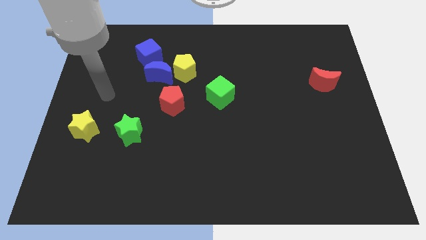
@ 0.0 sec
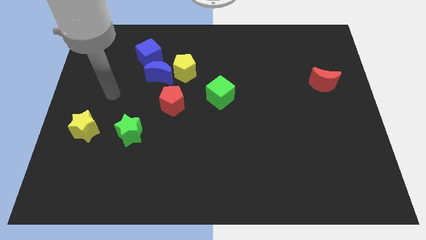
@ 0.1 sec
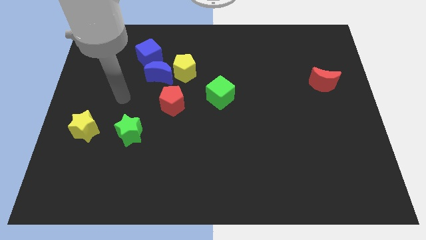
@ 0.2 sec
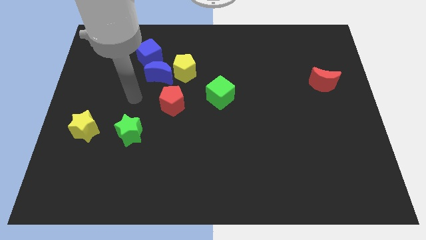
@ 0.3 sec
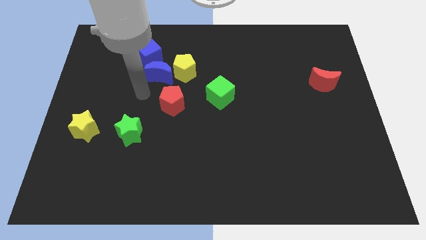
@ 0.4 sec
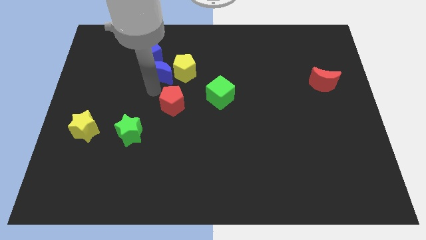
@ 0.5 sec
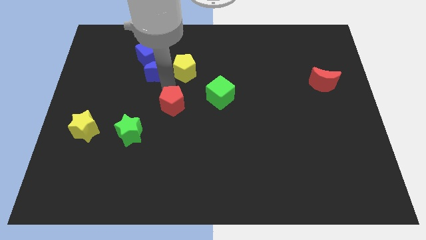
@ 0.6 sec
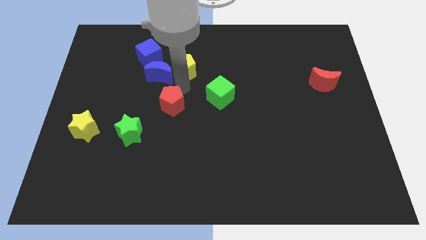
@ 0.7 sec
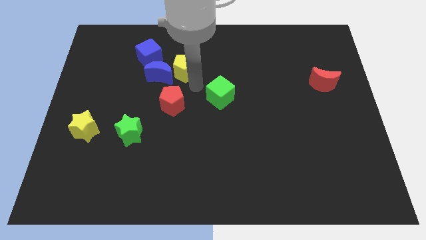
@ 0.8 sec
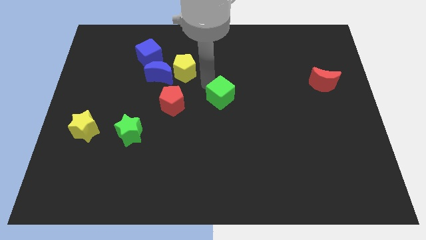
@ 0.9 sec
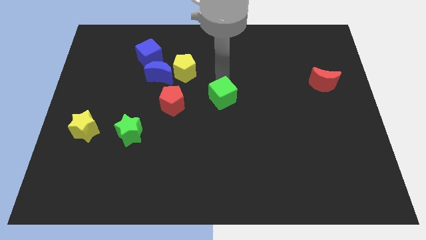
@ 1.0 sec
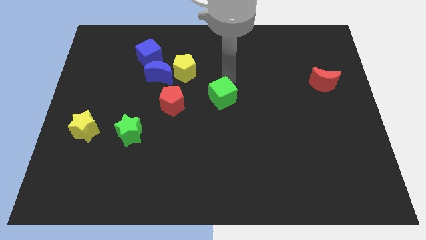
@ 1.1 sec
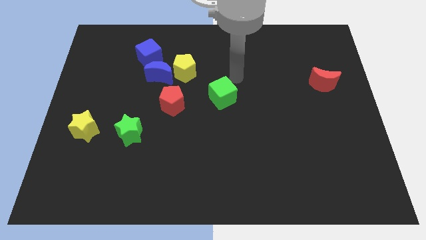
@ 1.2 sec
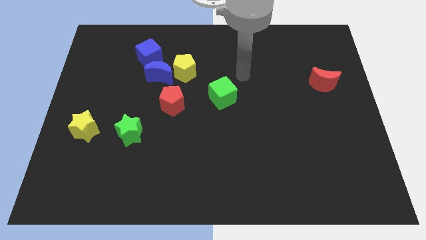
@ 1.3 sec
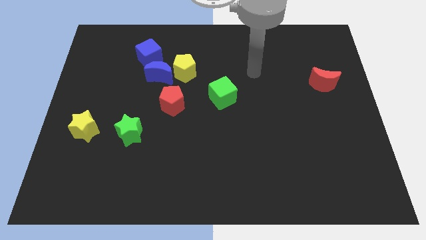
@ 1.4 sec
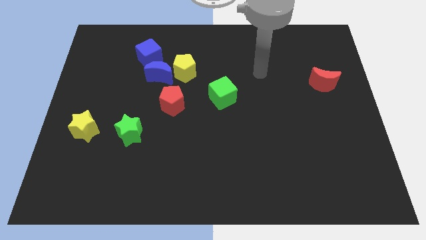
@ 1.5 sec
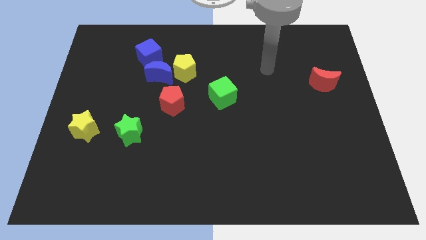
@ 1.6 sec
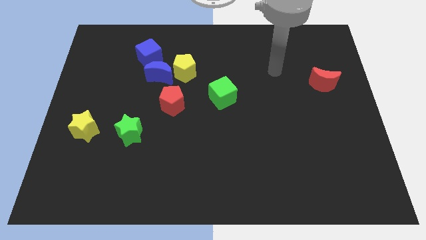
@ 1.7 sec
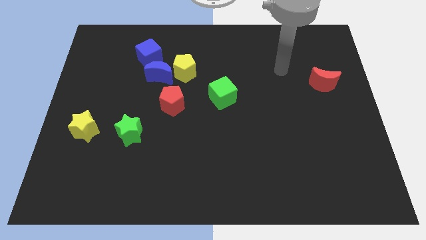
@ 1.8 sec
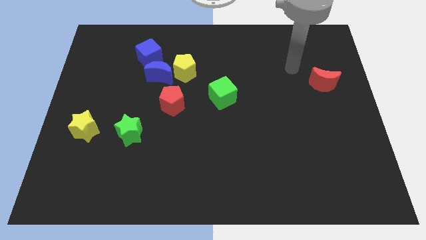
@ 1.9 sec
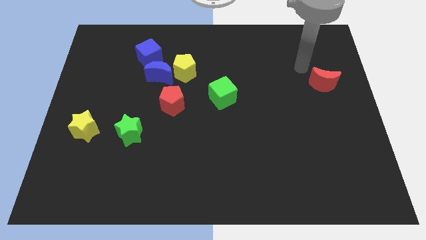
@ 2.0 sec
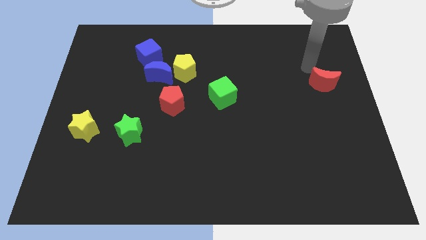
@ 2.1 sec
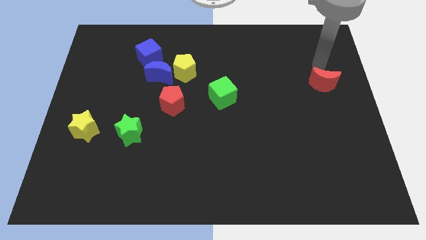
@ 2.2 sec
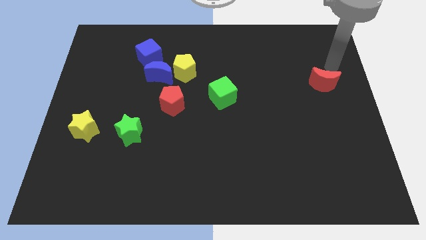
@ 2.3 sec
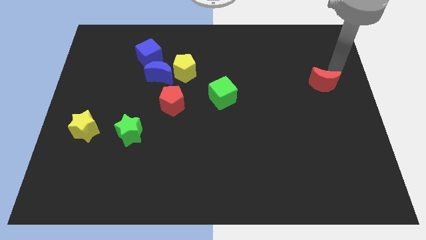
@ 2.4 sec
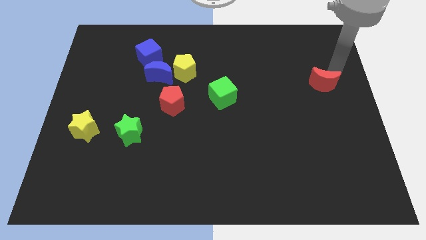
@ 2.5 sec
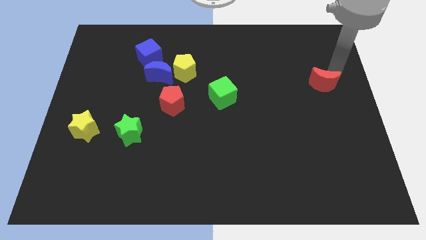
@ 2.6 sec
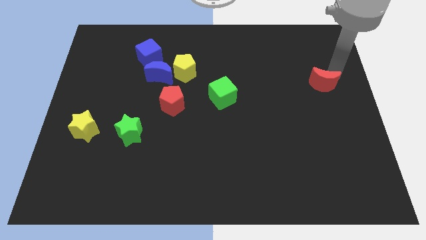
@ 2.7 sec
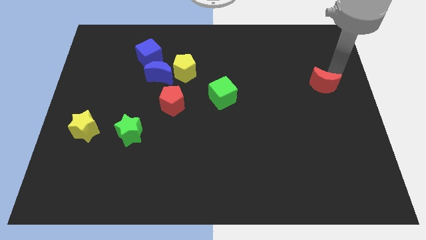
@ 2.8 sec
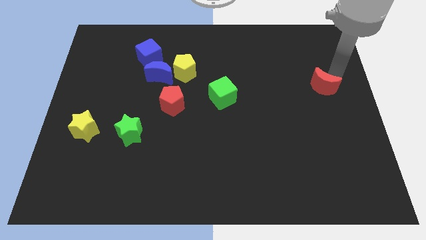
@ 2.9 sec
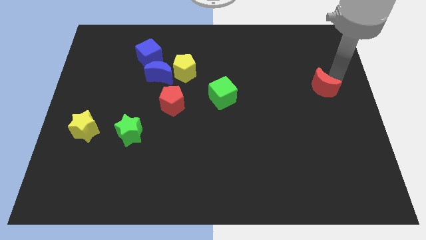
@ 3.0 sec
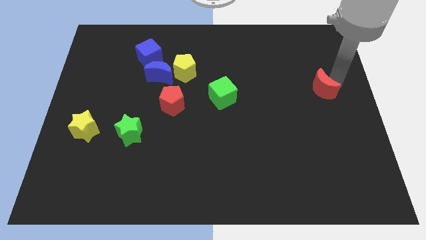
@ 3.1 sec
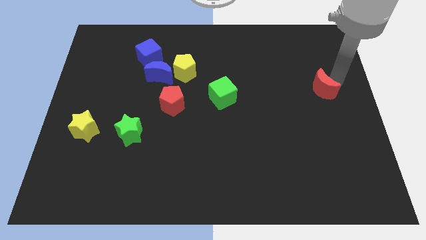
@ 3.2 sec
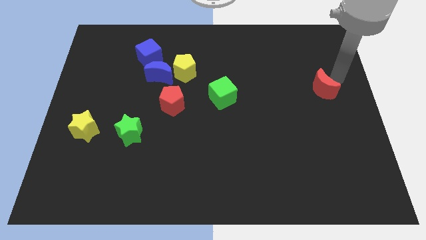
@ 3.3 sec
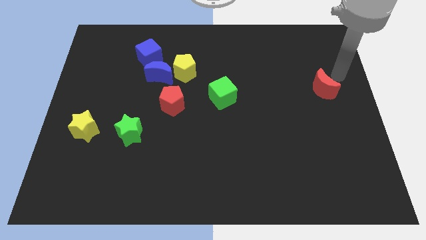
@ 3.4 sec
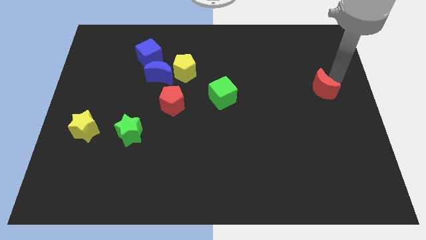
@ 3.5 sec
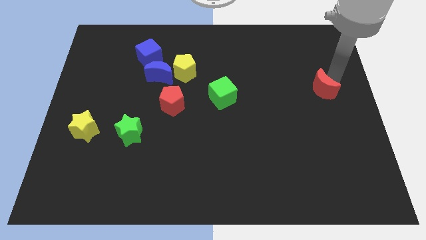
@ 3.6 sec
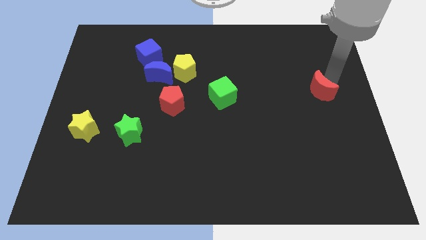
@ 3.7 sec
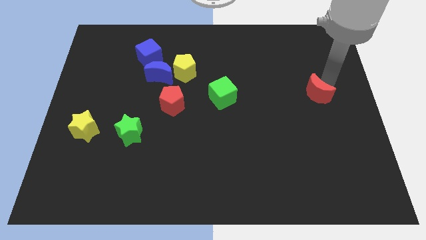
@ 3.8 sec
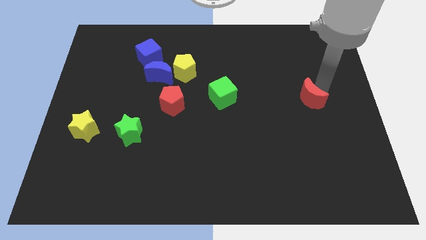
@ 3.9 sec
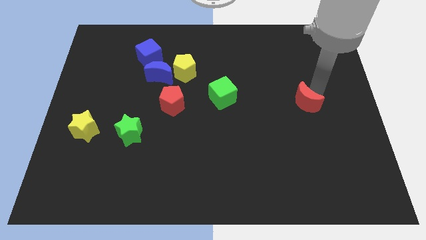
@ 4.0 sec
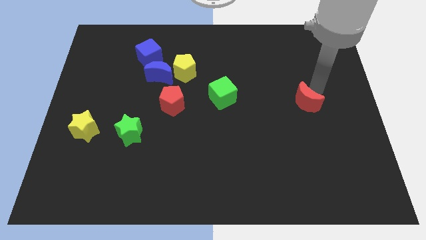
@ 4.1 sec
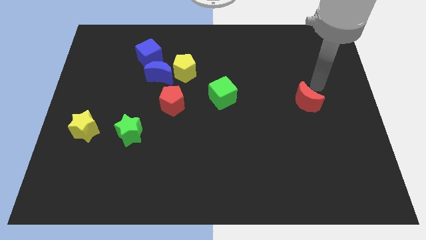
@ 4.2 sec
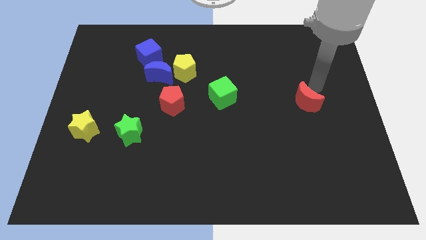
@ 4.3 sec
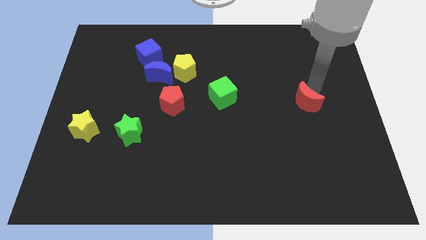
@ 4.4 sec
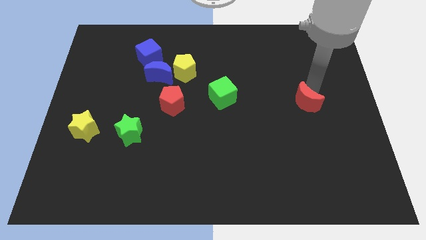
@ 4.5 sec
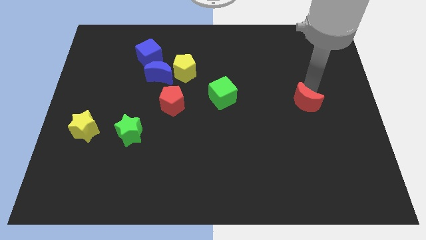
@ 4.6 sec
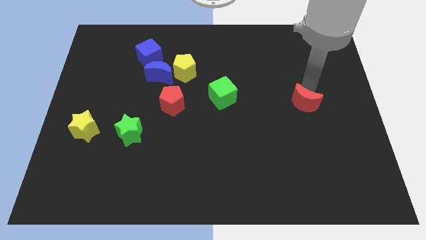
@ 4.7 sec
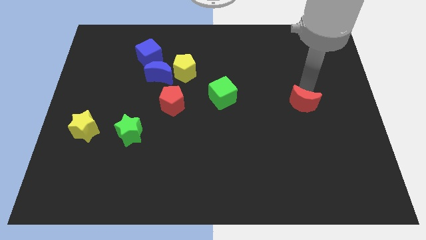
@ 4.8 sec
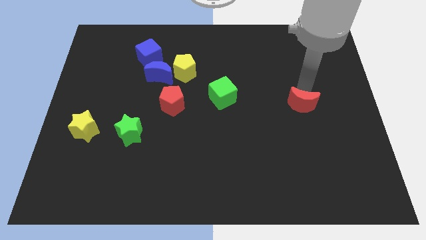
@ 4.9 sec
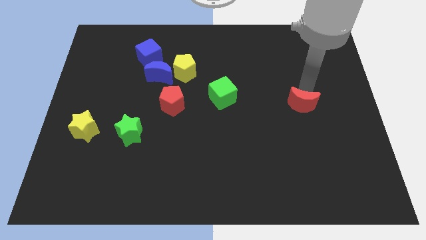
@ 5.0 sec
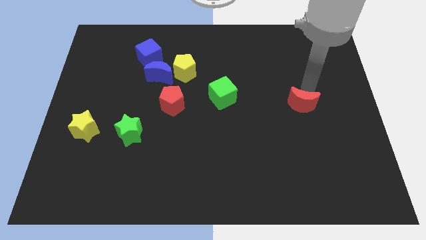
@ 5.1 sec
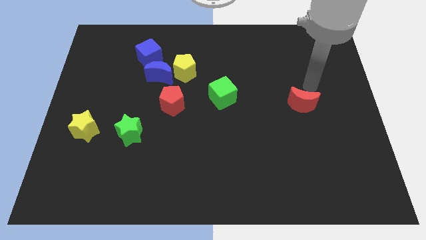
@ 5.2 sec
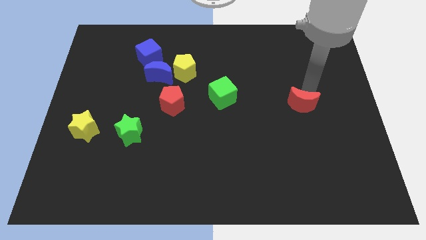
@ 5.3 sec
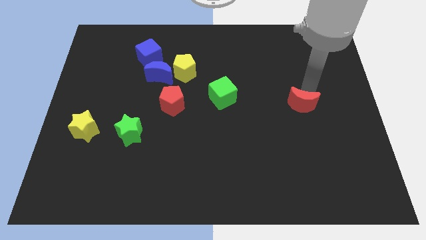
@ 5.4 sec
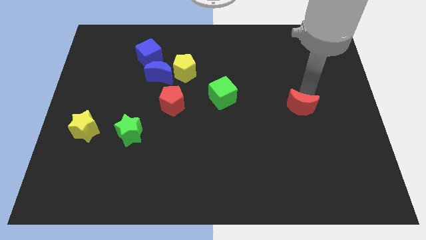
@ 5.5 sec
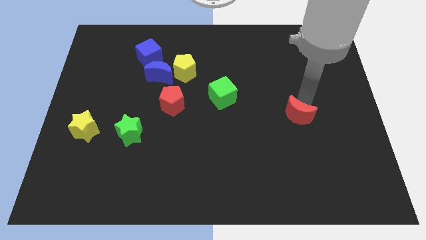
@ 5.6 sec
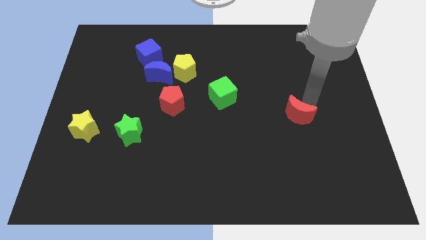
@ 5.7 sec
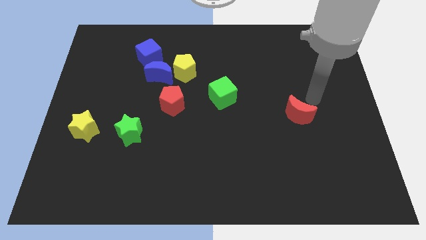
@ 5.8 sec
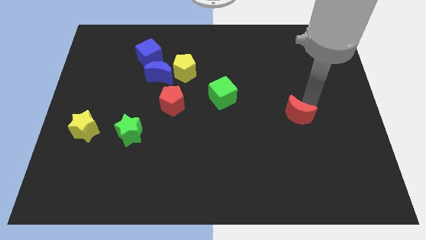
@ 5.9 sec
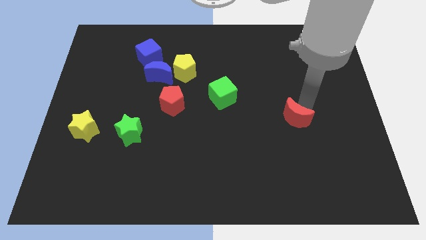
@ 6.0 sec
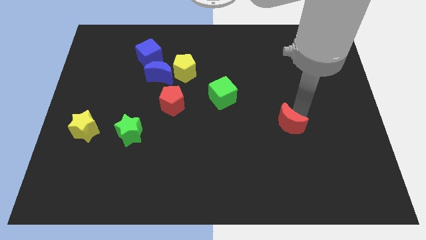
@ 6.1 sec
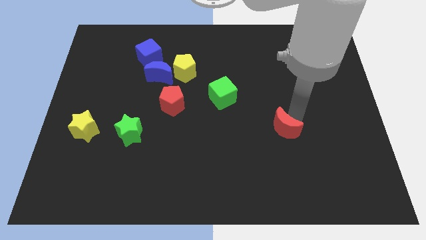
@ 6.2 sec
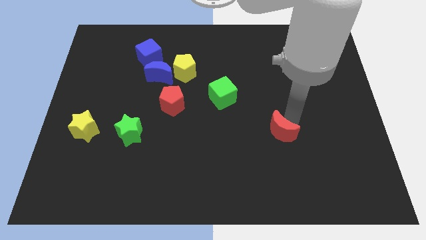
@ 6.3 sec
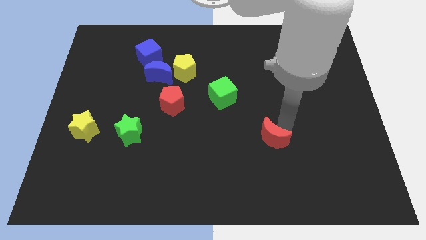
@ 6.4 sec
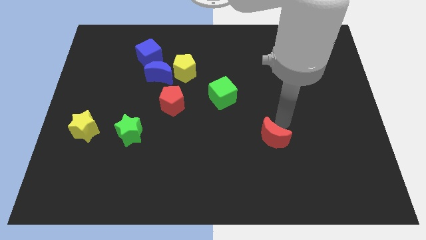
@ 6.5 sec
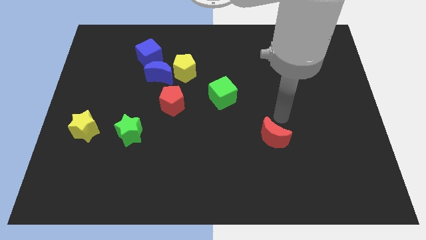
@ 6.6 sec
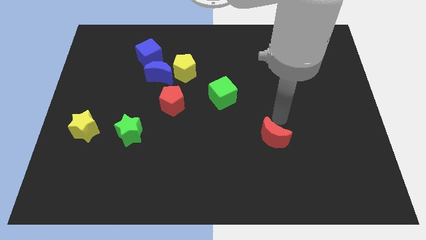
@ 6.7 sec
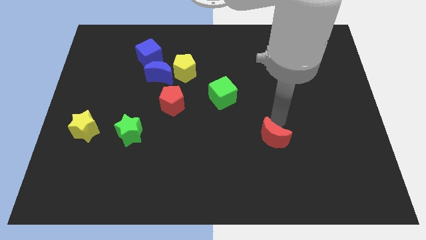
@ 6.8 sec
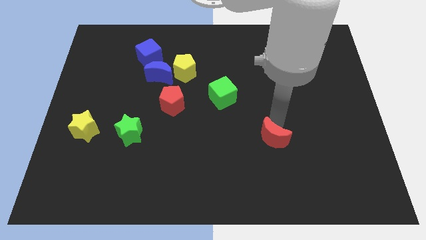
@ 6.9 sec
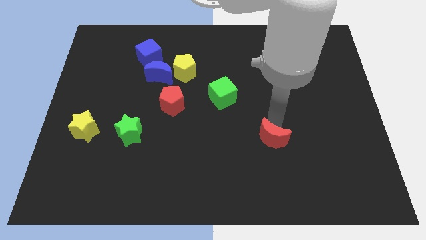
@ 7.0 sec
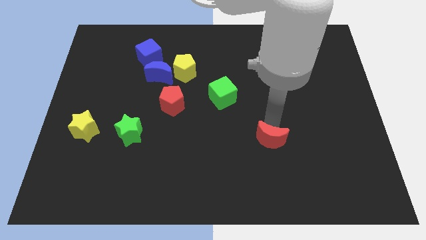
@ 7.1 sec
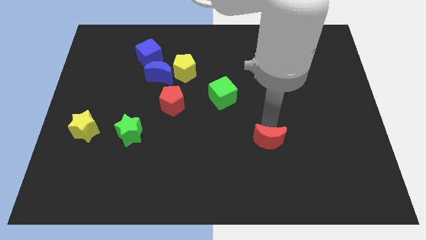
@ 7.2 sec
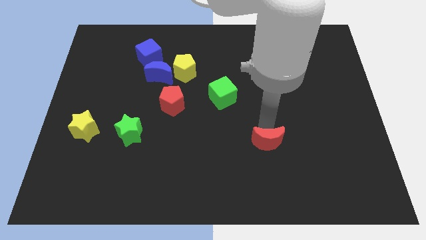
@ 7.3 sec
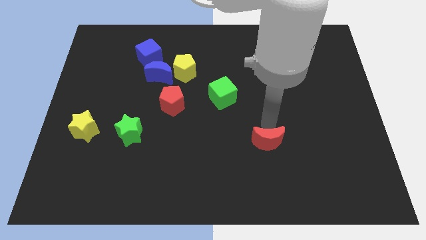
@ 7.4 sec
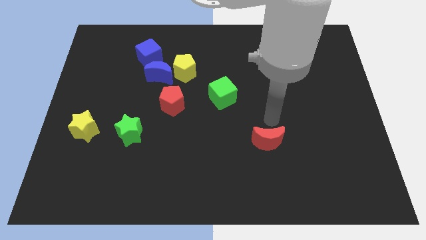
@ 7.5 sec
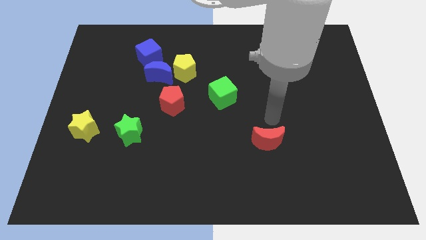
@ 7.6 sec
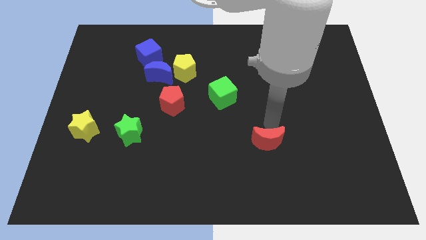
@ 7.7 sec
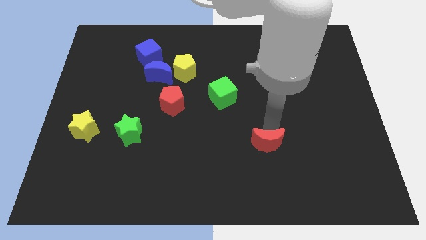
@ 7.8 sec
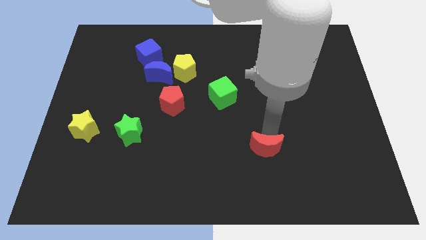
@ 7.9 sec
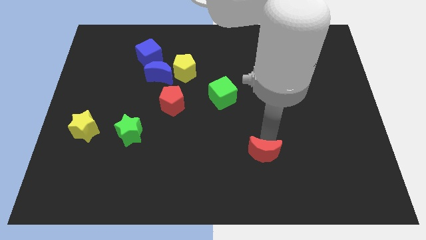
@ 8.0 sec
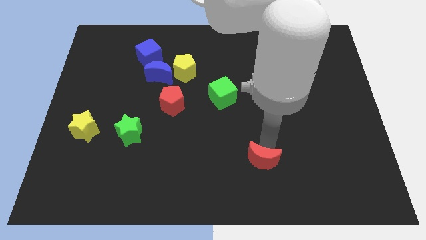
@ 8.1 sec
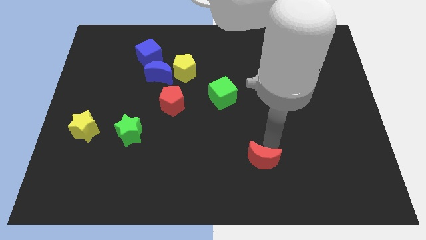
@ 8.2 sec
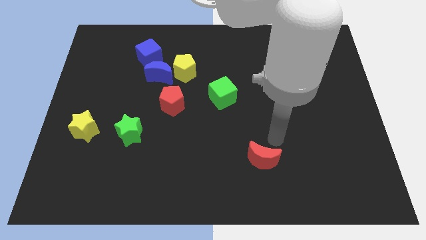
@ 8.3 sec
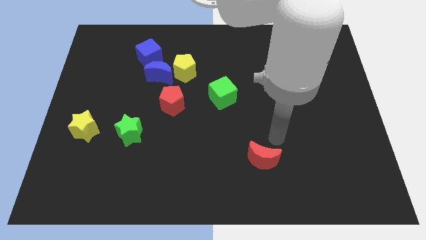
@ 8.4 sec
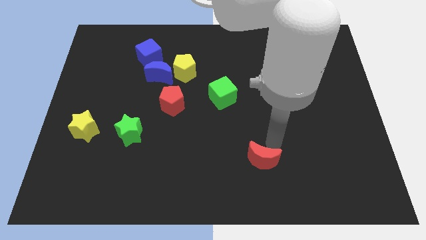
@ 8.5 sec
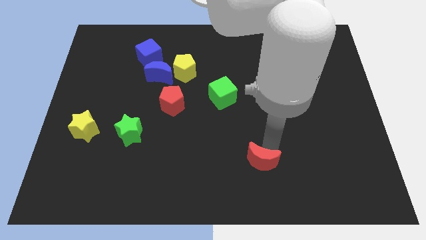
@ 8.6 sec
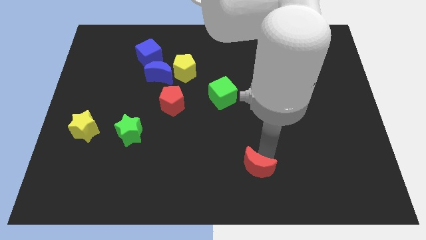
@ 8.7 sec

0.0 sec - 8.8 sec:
push the red moon to the bottom
